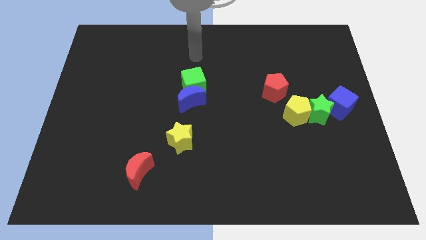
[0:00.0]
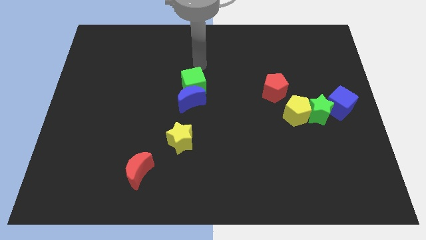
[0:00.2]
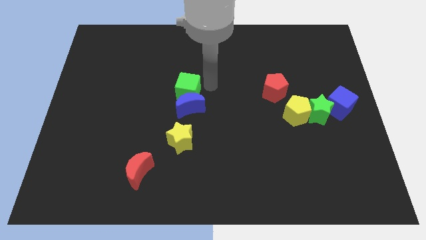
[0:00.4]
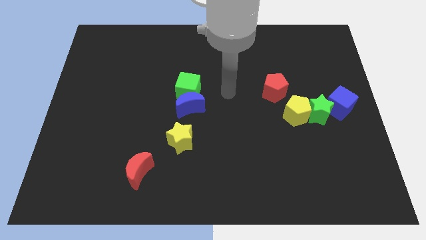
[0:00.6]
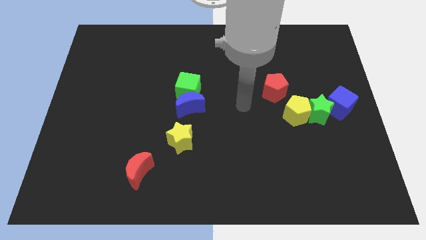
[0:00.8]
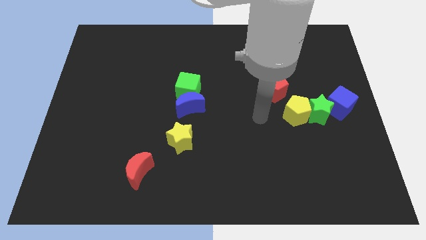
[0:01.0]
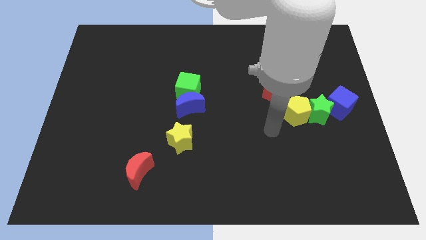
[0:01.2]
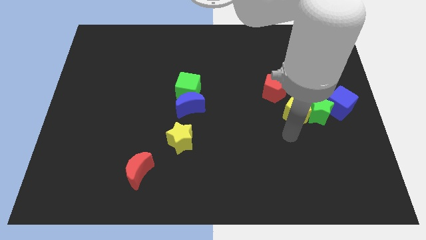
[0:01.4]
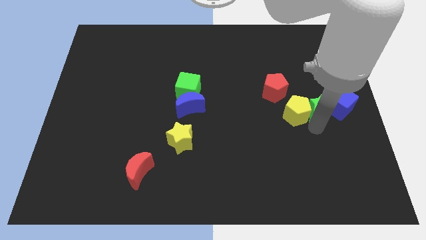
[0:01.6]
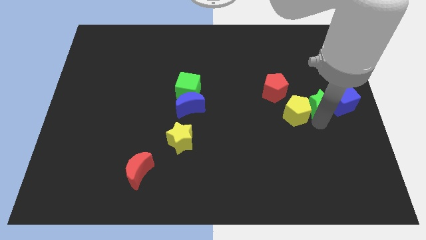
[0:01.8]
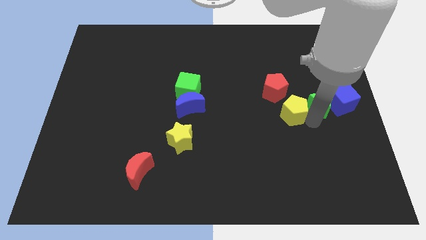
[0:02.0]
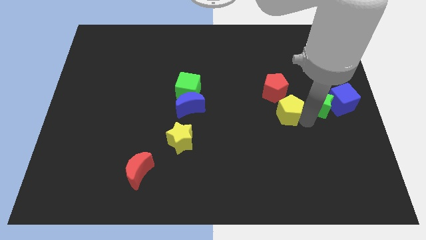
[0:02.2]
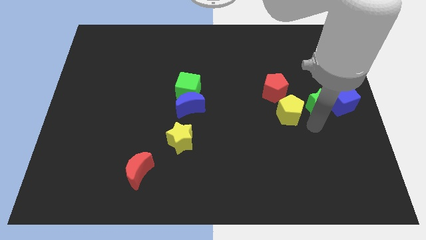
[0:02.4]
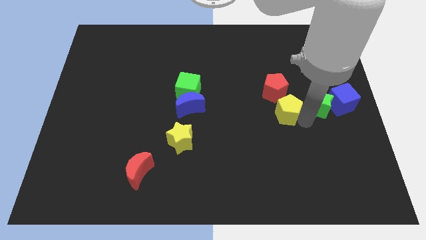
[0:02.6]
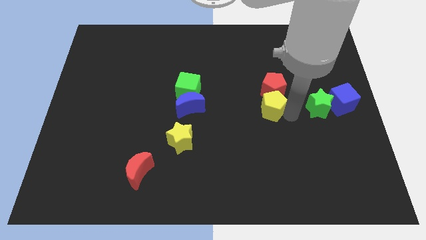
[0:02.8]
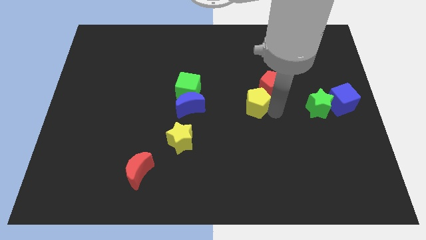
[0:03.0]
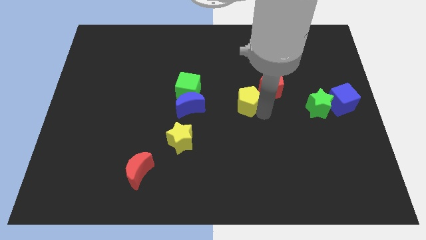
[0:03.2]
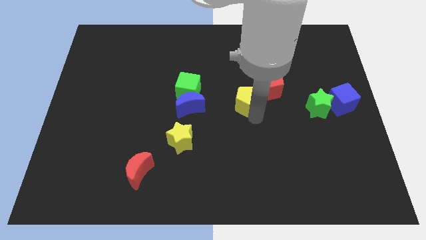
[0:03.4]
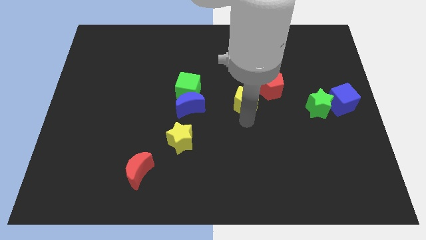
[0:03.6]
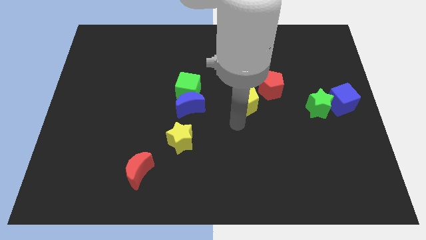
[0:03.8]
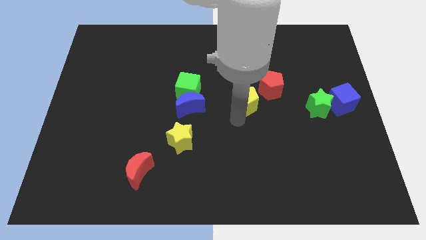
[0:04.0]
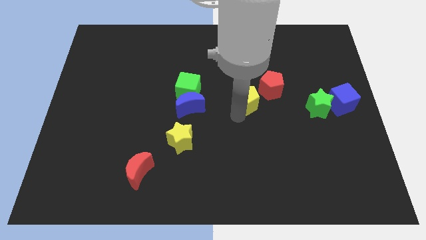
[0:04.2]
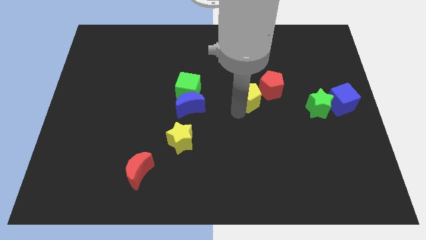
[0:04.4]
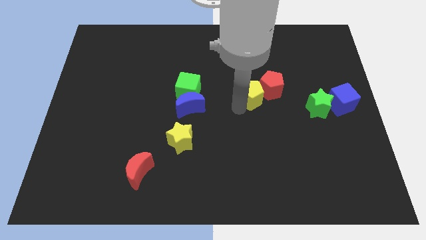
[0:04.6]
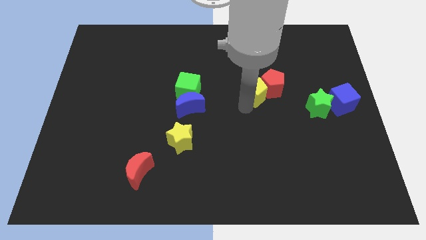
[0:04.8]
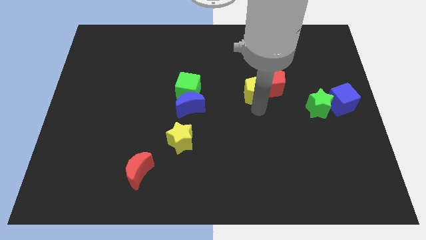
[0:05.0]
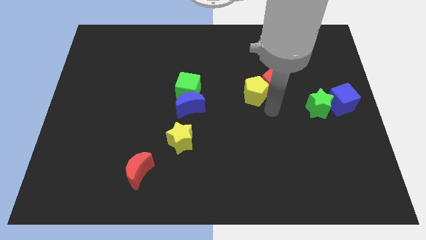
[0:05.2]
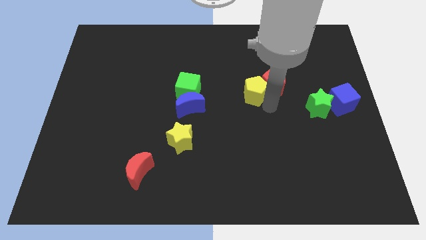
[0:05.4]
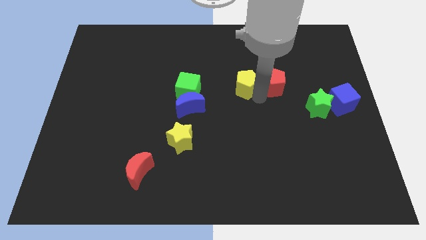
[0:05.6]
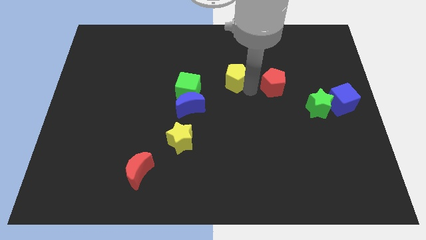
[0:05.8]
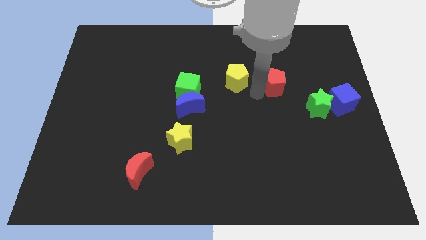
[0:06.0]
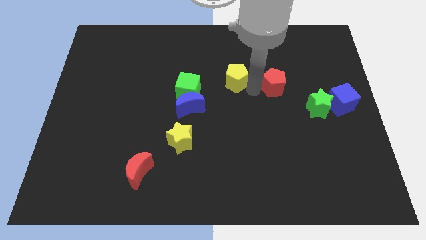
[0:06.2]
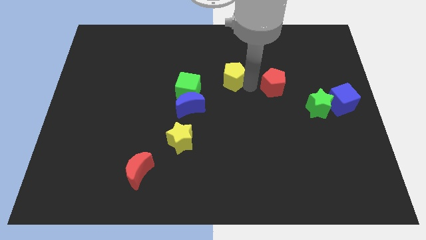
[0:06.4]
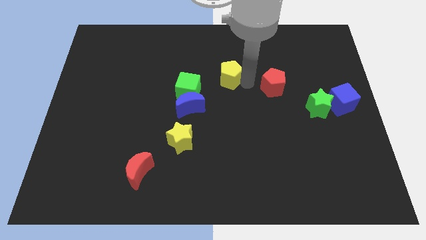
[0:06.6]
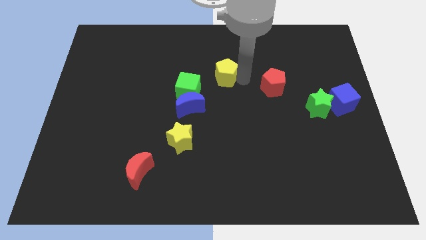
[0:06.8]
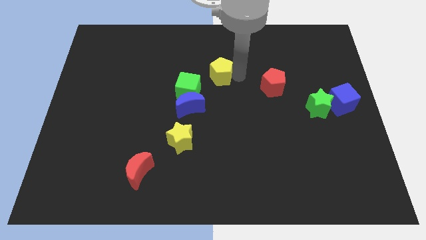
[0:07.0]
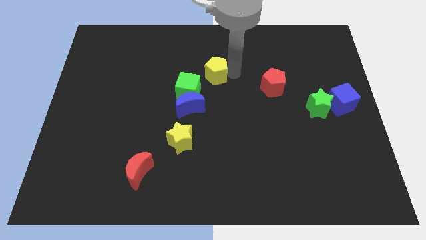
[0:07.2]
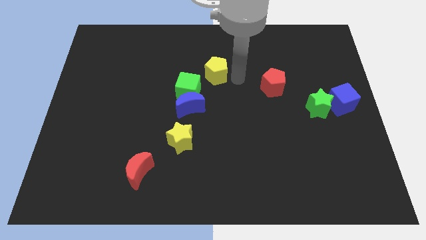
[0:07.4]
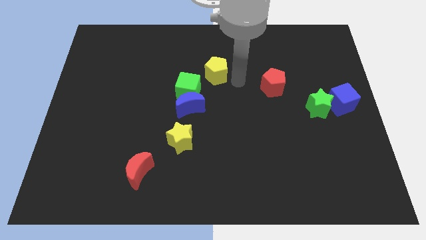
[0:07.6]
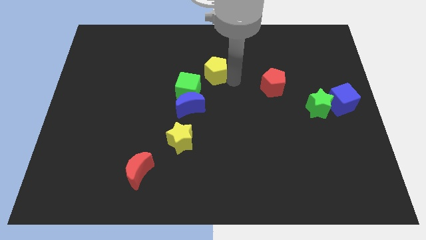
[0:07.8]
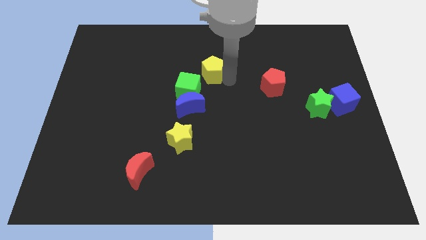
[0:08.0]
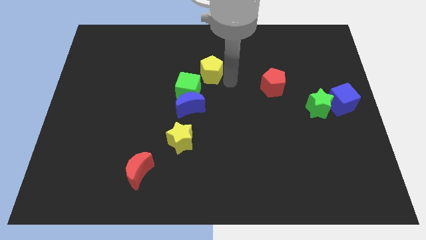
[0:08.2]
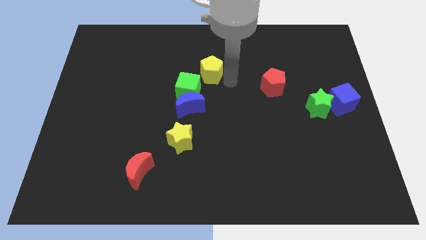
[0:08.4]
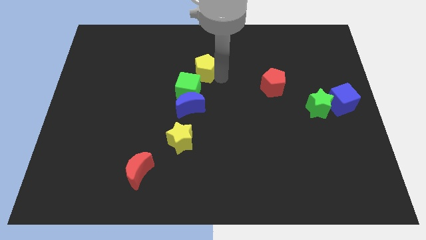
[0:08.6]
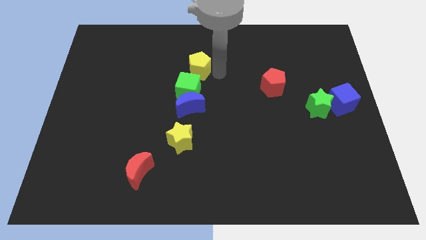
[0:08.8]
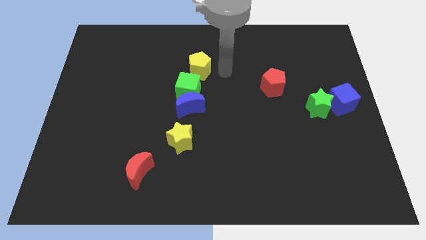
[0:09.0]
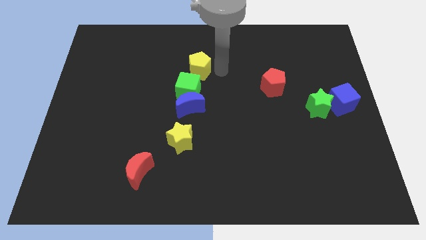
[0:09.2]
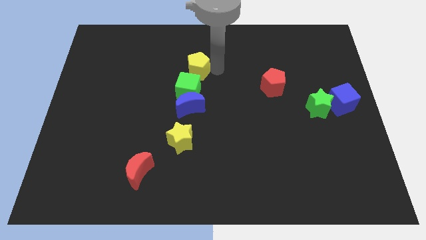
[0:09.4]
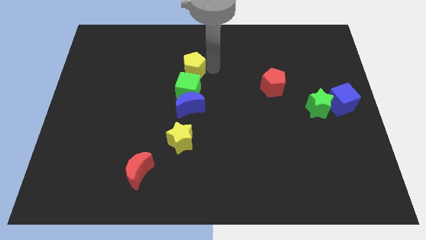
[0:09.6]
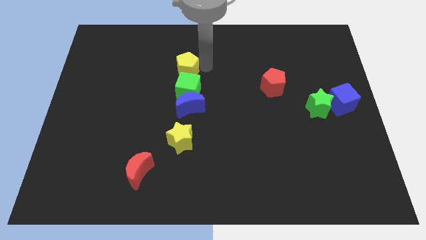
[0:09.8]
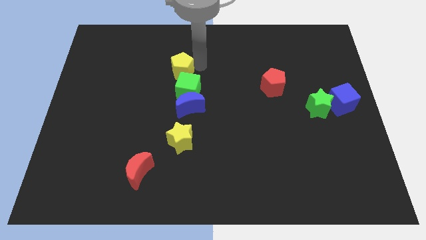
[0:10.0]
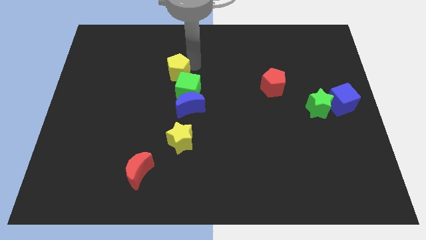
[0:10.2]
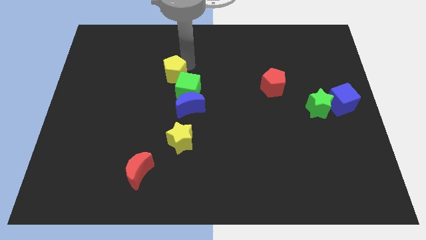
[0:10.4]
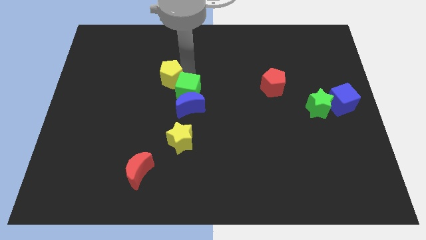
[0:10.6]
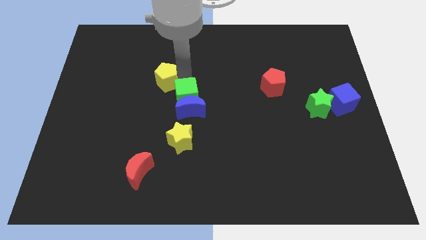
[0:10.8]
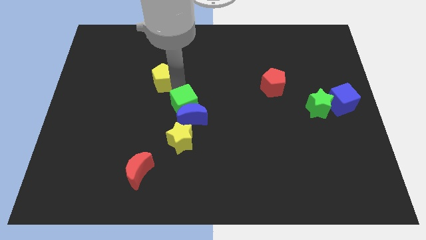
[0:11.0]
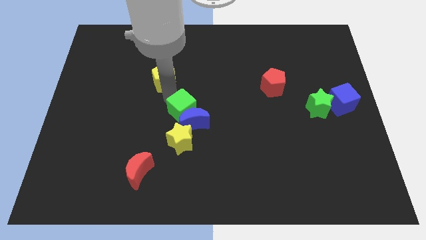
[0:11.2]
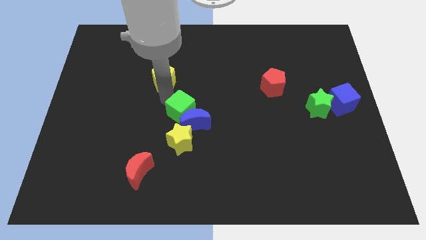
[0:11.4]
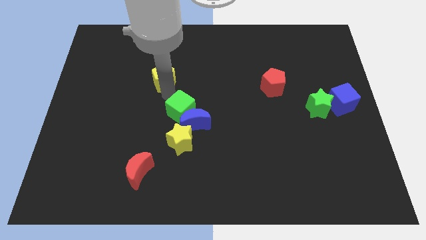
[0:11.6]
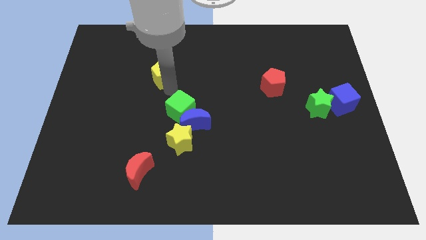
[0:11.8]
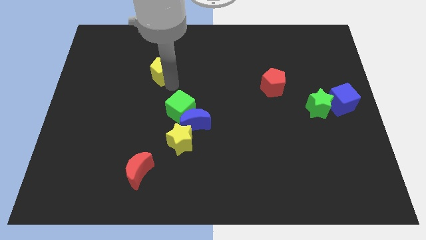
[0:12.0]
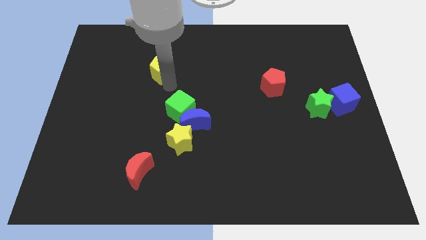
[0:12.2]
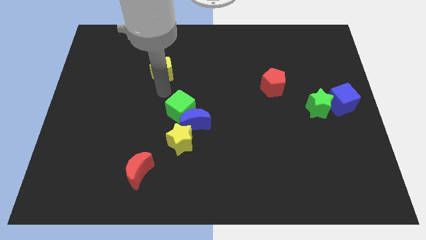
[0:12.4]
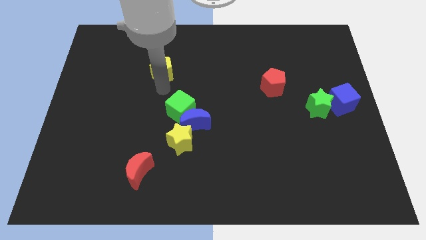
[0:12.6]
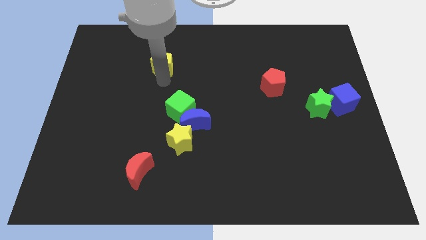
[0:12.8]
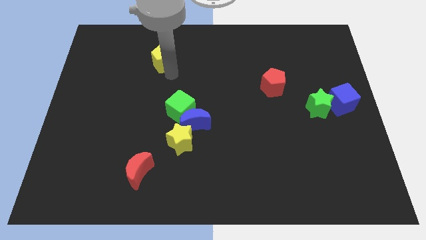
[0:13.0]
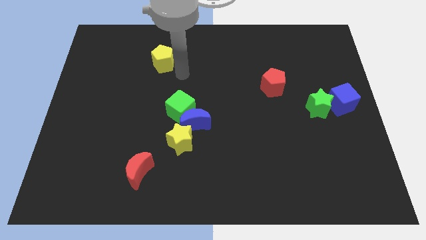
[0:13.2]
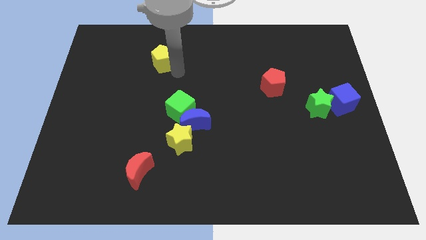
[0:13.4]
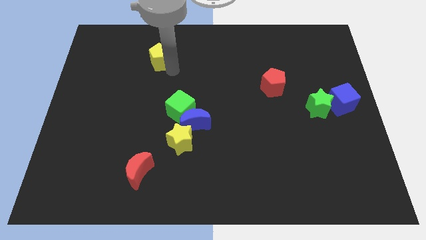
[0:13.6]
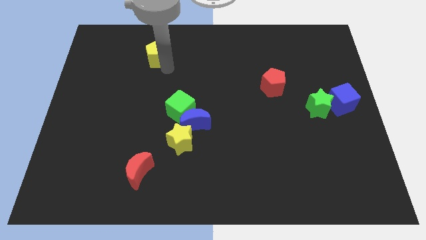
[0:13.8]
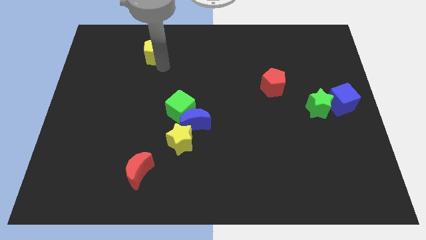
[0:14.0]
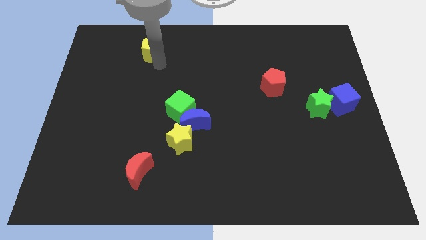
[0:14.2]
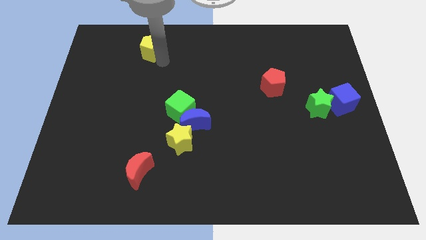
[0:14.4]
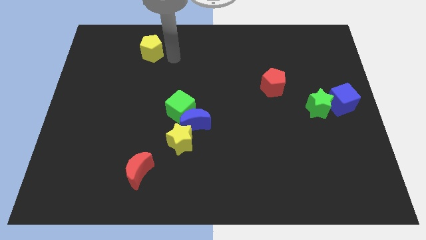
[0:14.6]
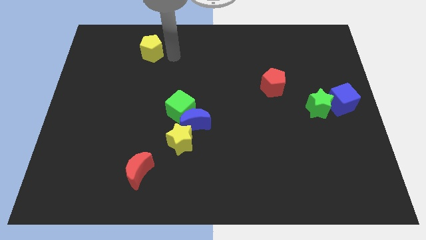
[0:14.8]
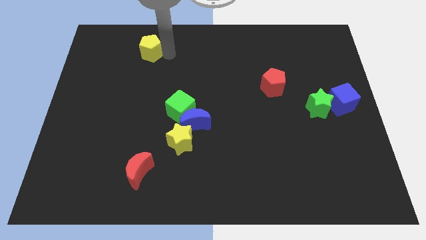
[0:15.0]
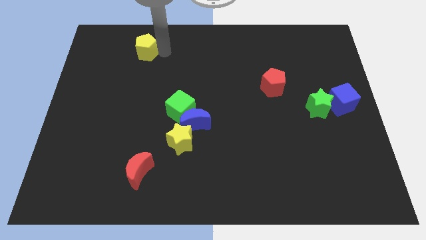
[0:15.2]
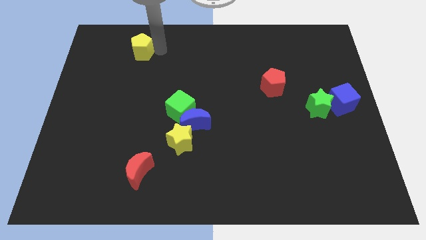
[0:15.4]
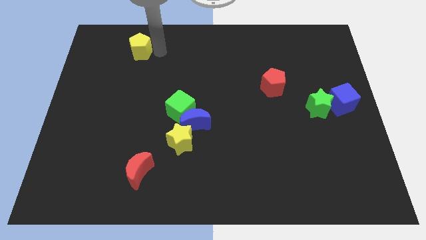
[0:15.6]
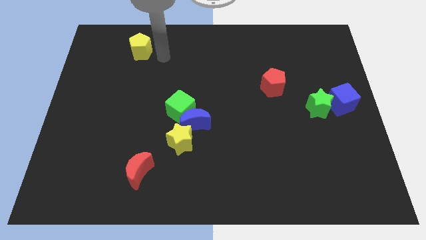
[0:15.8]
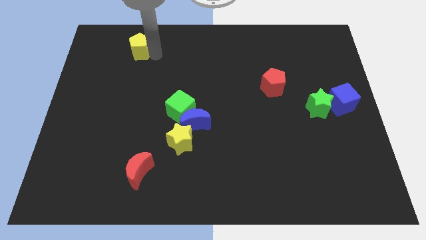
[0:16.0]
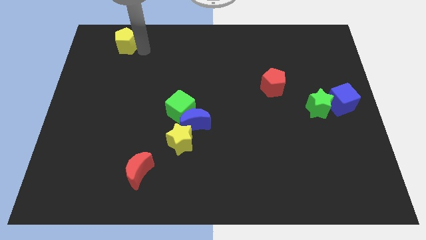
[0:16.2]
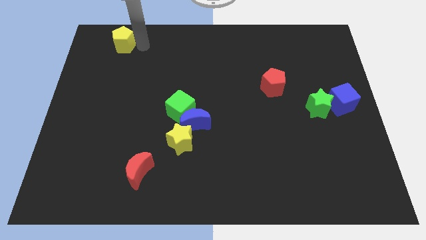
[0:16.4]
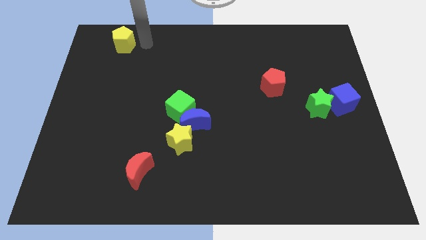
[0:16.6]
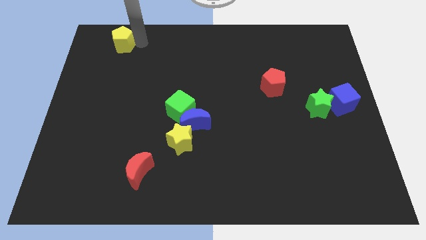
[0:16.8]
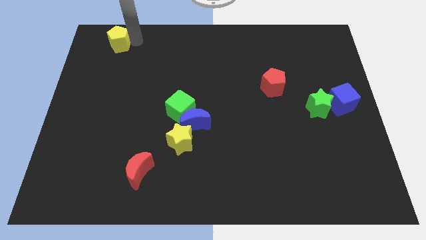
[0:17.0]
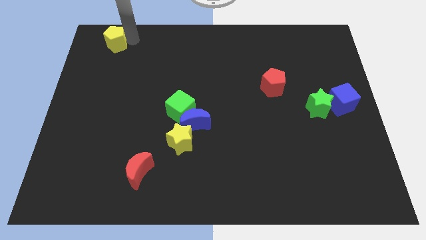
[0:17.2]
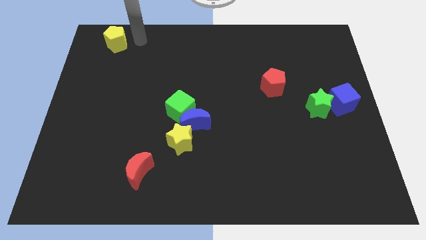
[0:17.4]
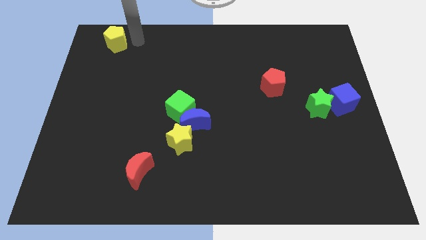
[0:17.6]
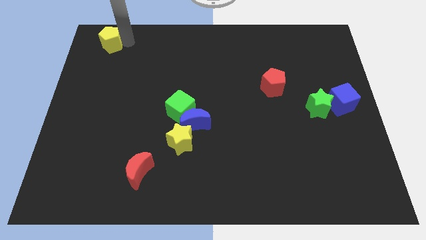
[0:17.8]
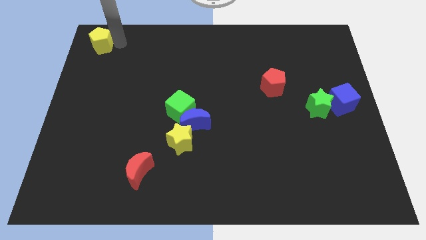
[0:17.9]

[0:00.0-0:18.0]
slide the yellow pentagon to the top left corner
